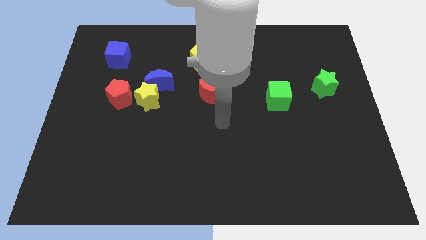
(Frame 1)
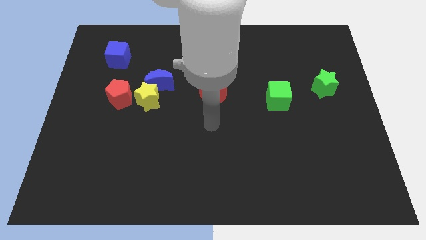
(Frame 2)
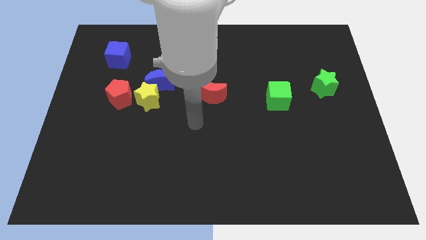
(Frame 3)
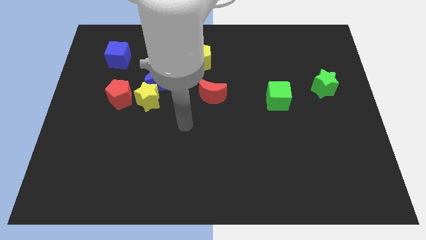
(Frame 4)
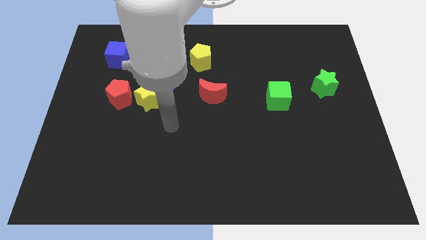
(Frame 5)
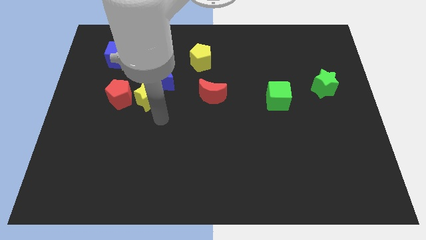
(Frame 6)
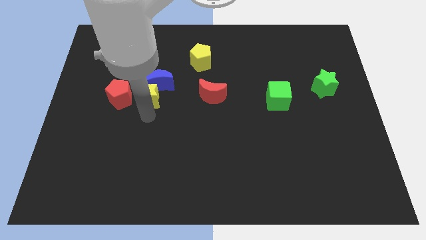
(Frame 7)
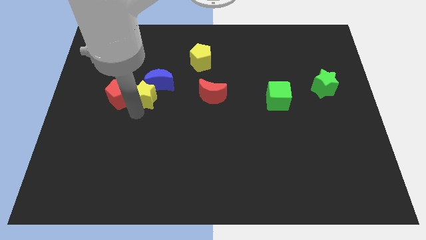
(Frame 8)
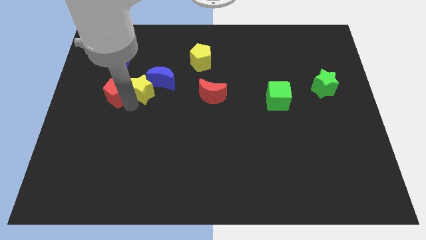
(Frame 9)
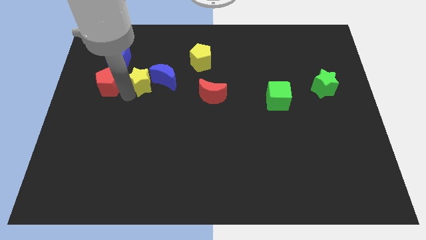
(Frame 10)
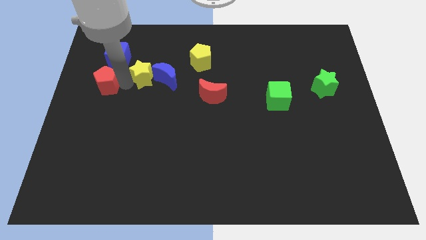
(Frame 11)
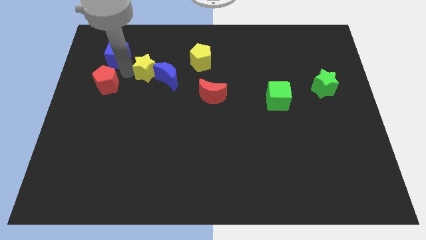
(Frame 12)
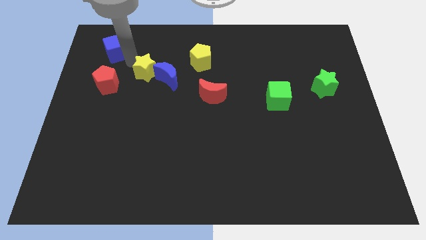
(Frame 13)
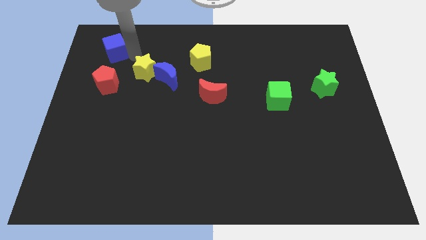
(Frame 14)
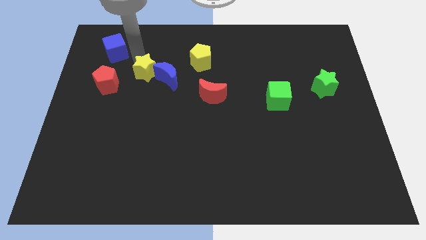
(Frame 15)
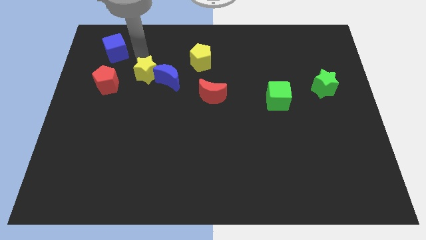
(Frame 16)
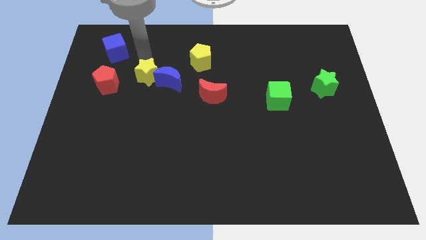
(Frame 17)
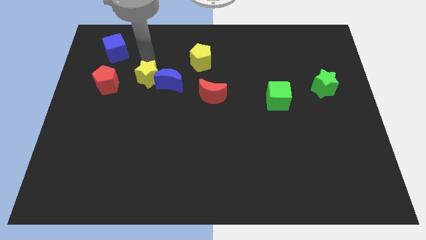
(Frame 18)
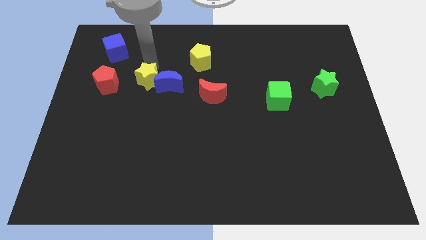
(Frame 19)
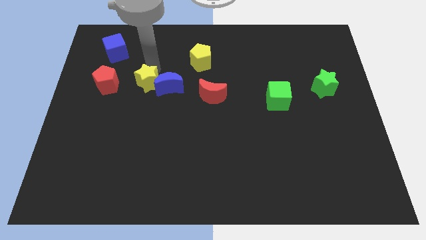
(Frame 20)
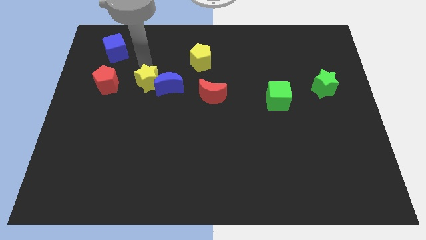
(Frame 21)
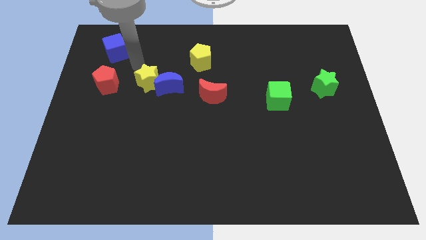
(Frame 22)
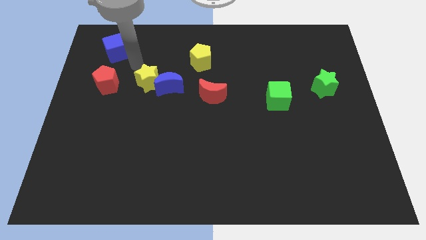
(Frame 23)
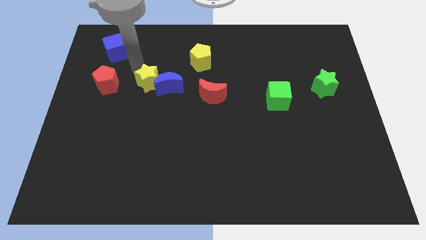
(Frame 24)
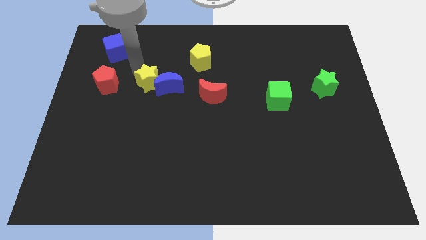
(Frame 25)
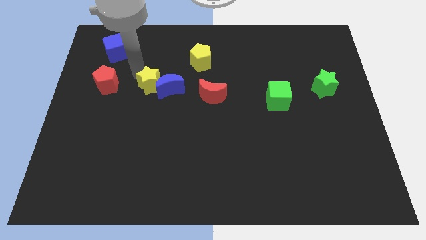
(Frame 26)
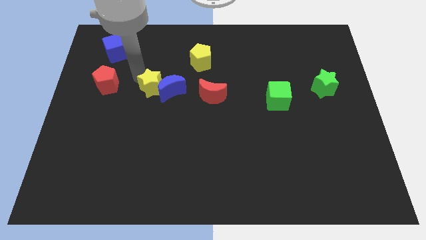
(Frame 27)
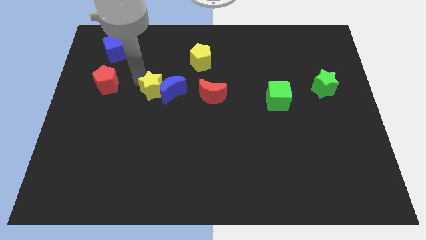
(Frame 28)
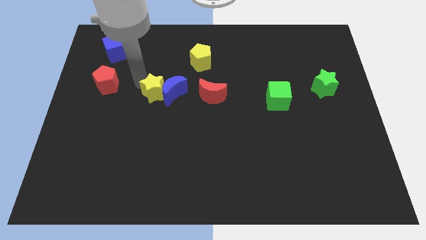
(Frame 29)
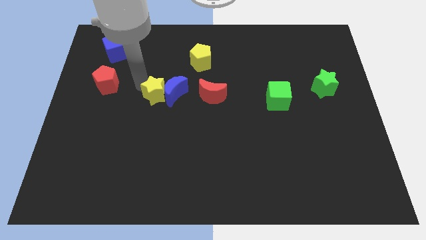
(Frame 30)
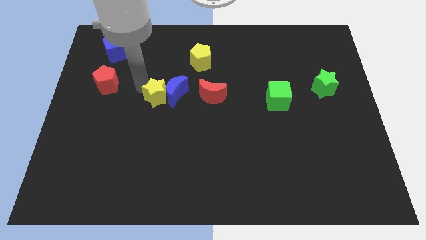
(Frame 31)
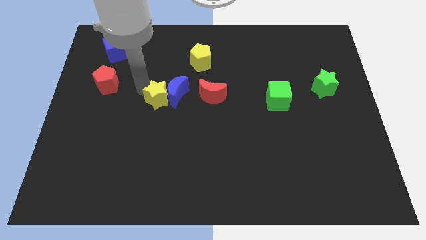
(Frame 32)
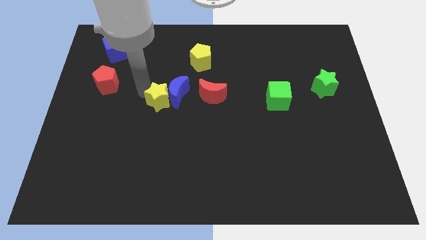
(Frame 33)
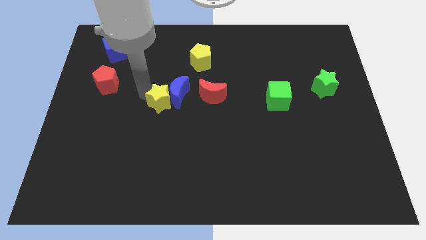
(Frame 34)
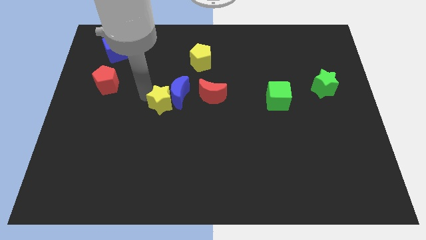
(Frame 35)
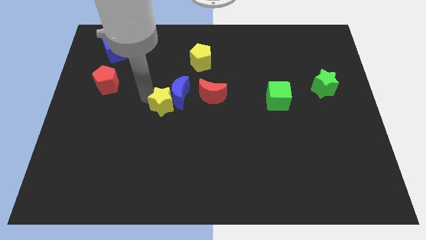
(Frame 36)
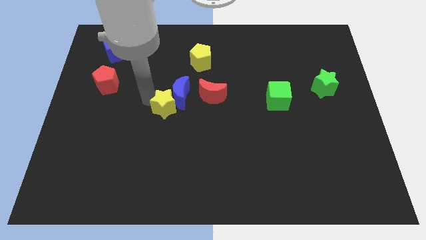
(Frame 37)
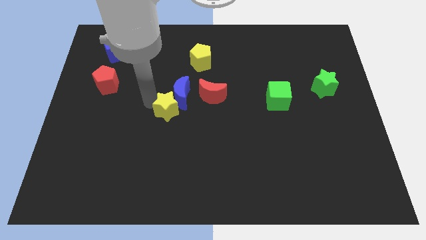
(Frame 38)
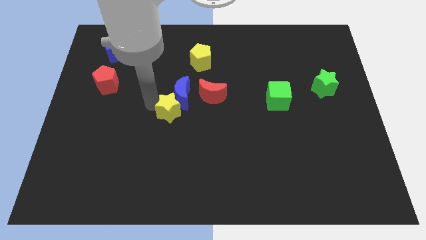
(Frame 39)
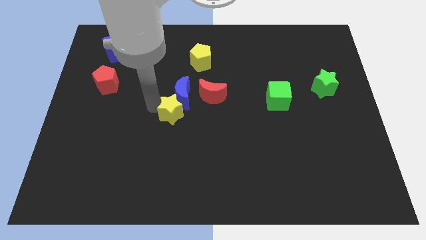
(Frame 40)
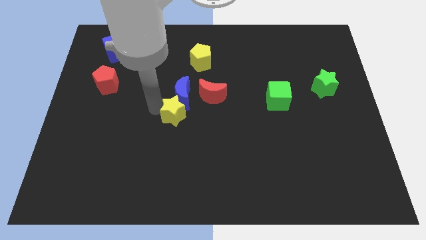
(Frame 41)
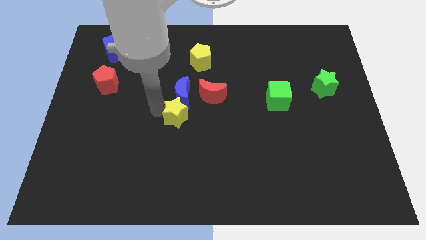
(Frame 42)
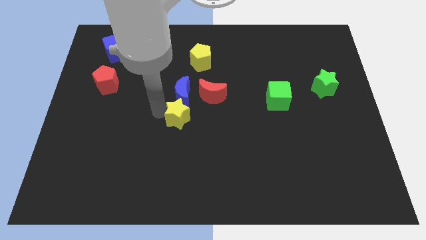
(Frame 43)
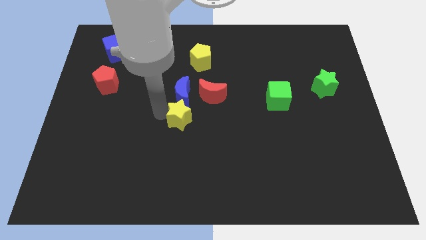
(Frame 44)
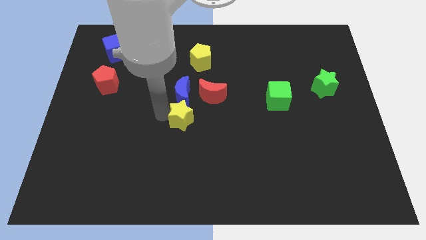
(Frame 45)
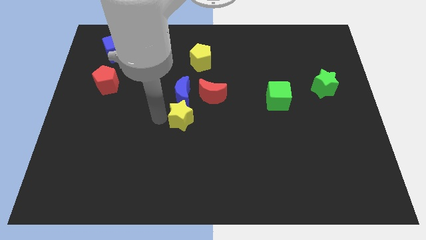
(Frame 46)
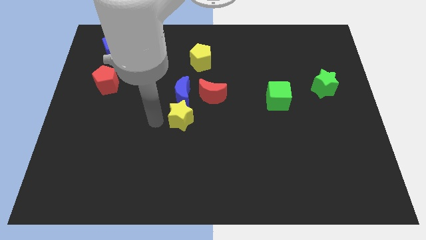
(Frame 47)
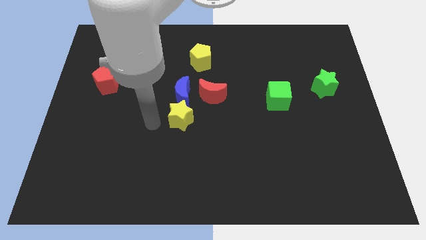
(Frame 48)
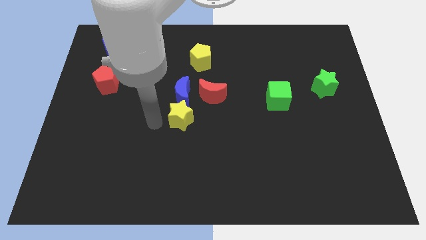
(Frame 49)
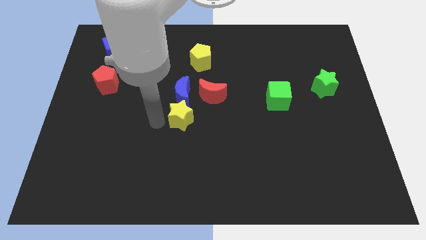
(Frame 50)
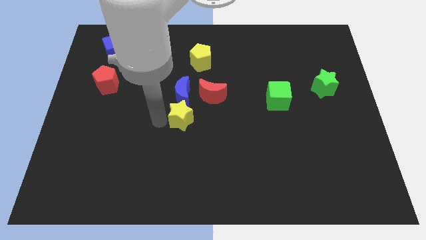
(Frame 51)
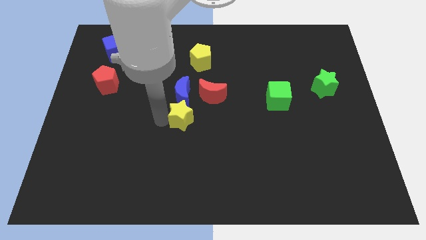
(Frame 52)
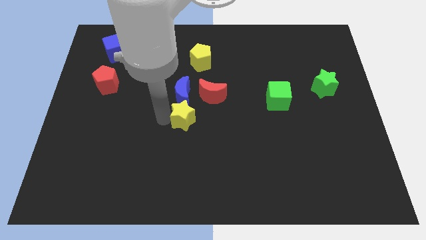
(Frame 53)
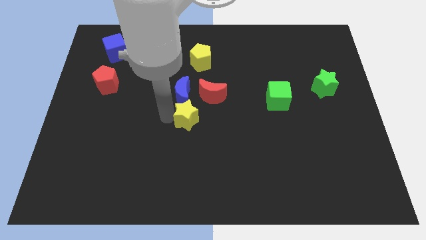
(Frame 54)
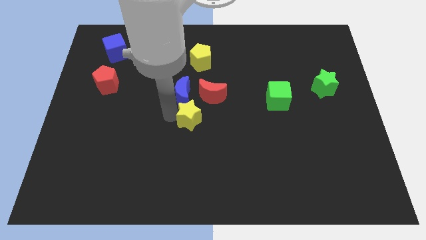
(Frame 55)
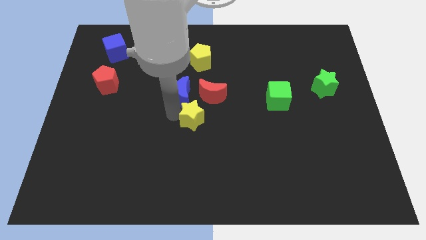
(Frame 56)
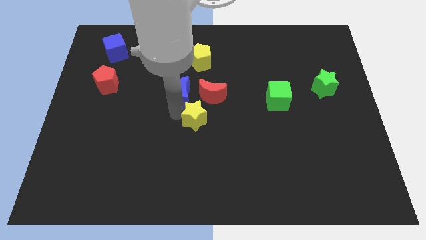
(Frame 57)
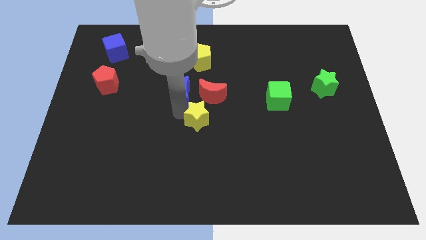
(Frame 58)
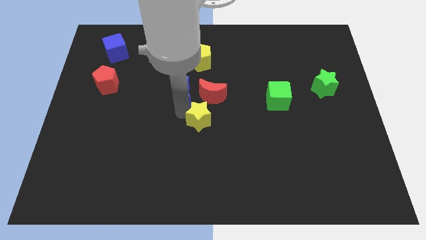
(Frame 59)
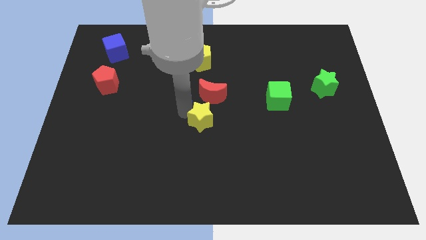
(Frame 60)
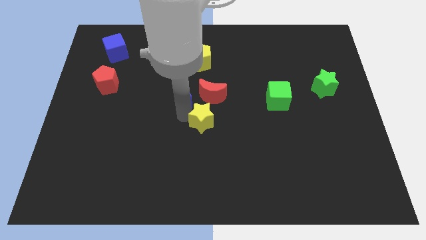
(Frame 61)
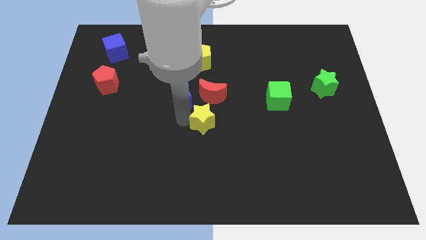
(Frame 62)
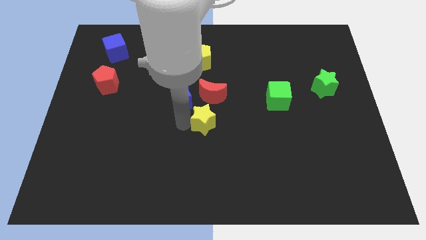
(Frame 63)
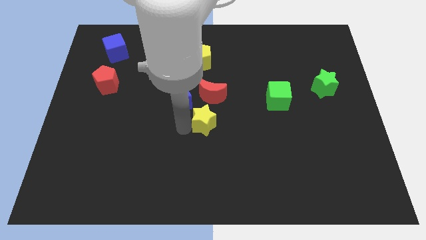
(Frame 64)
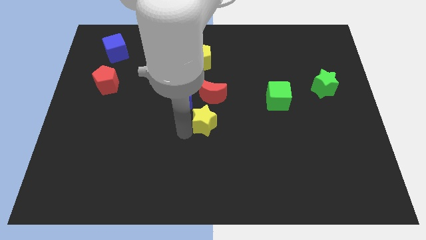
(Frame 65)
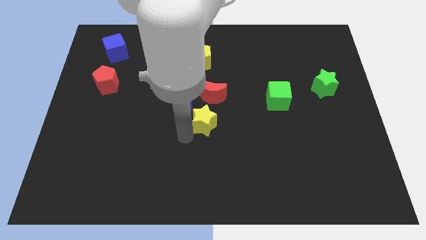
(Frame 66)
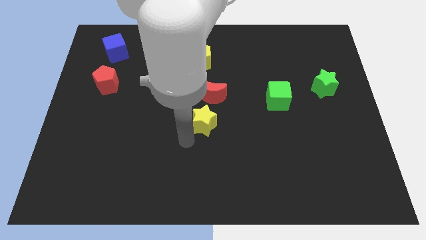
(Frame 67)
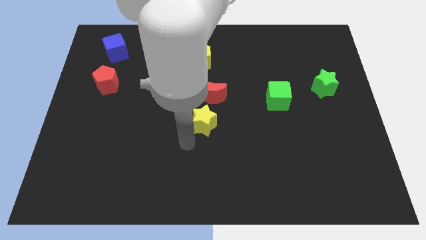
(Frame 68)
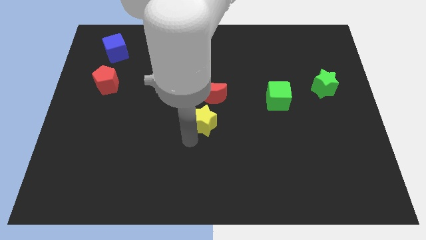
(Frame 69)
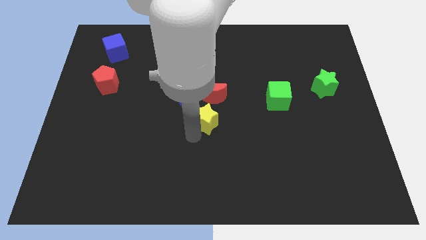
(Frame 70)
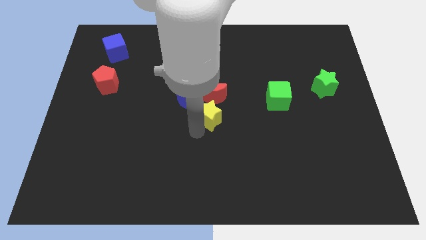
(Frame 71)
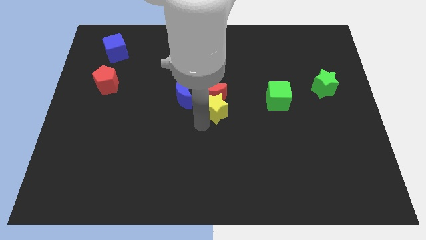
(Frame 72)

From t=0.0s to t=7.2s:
push the yellow star to the left side of the green cube
